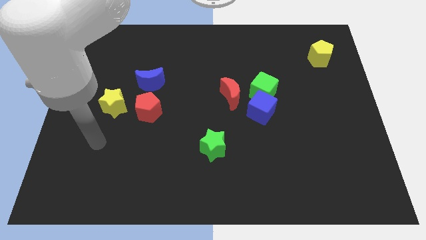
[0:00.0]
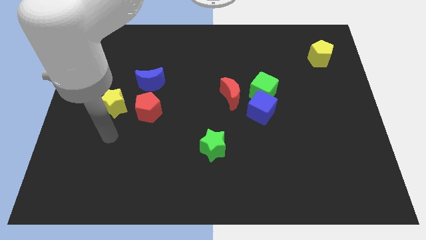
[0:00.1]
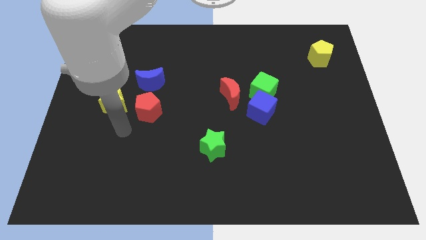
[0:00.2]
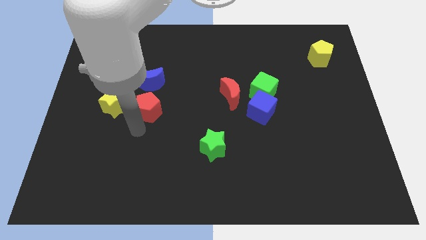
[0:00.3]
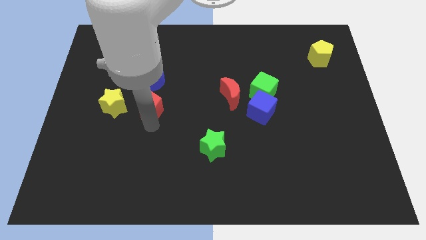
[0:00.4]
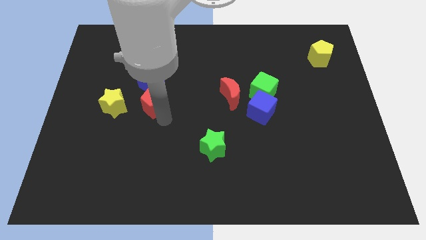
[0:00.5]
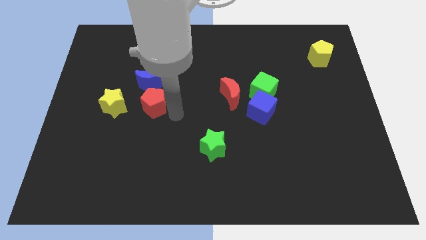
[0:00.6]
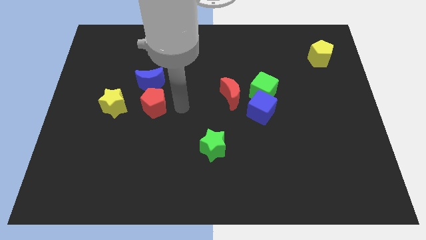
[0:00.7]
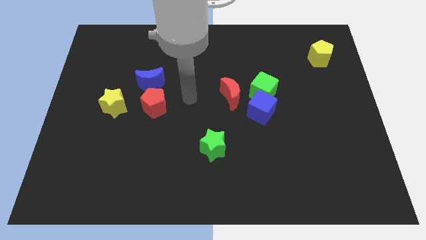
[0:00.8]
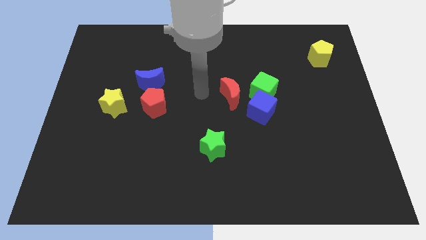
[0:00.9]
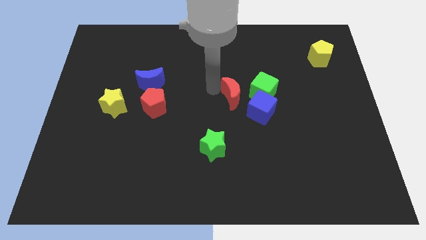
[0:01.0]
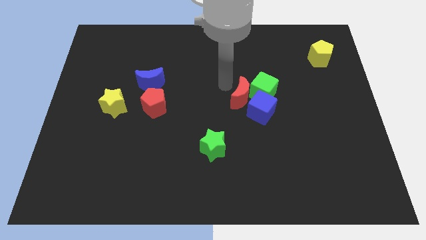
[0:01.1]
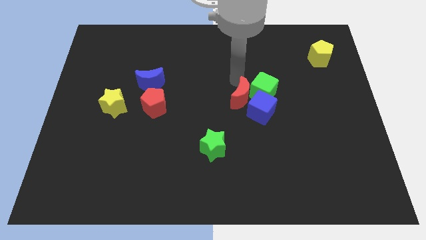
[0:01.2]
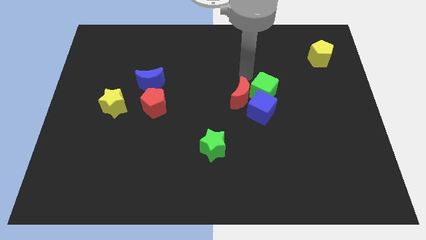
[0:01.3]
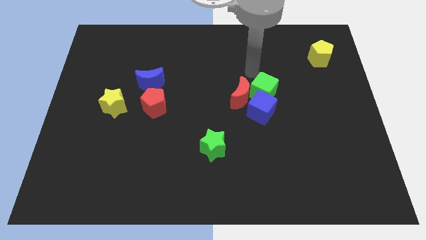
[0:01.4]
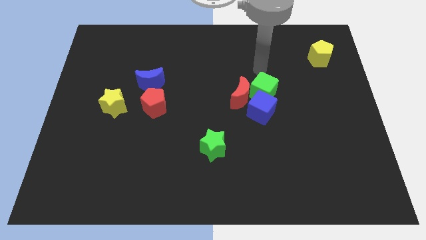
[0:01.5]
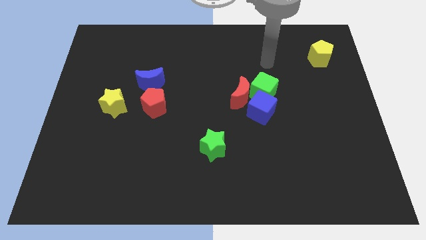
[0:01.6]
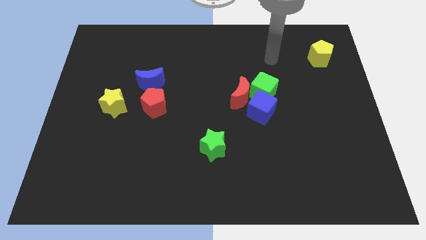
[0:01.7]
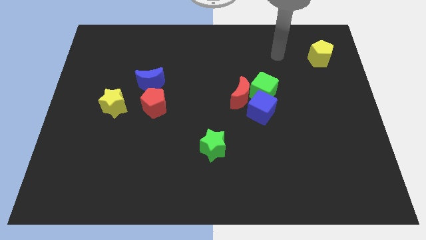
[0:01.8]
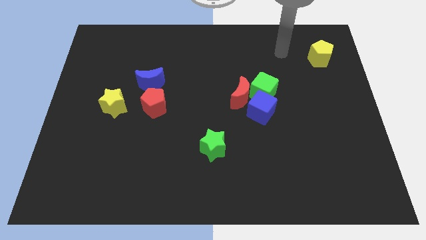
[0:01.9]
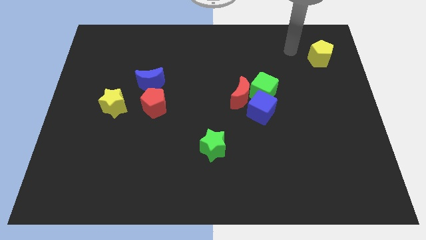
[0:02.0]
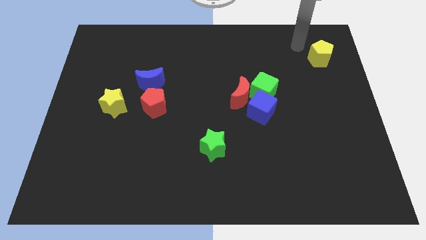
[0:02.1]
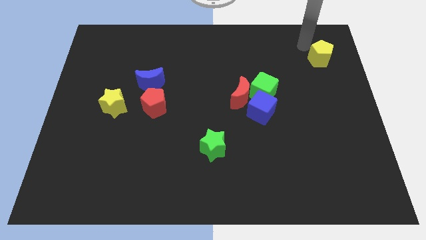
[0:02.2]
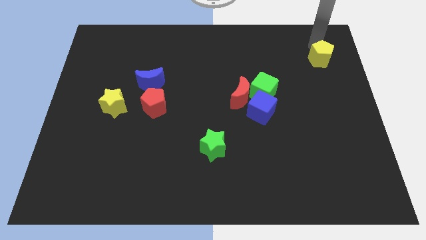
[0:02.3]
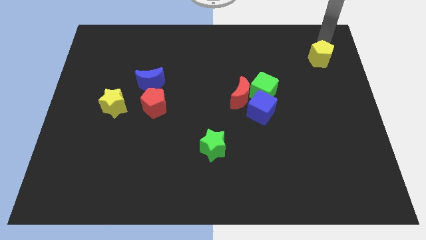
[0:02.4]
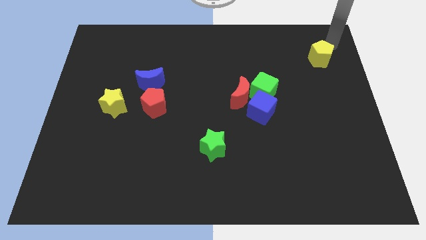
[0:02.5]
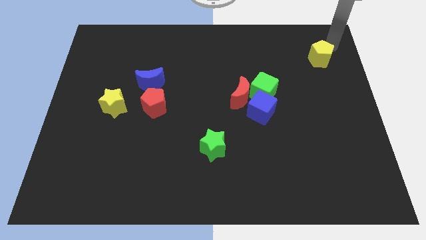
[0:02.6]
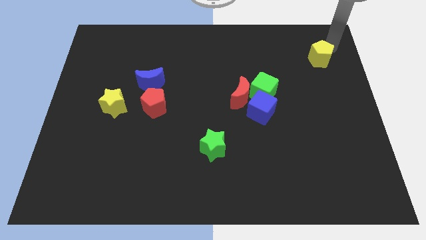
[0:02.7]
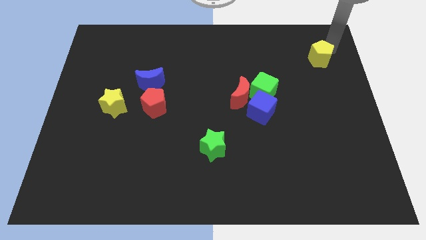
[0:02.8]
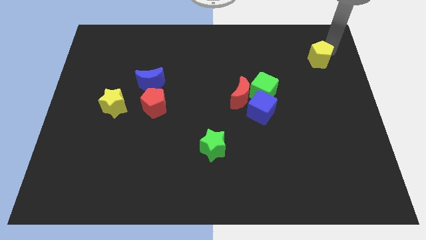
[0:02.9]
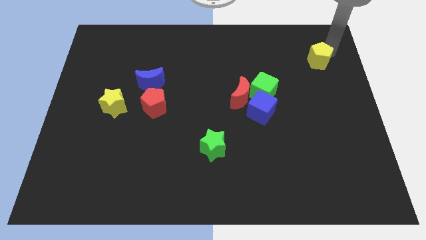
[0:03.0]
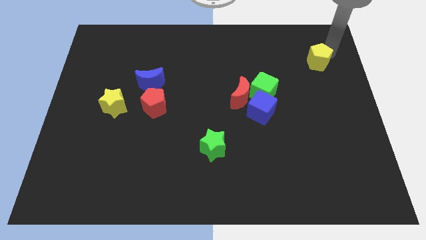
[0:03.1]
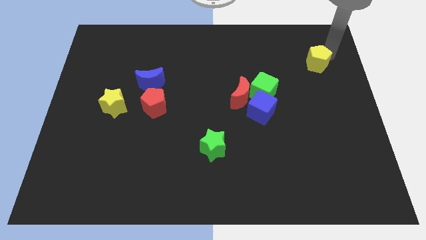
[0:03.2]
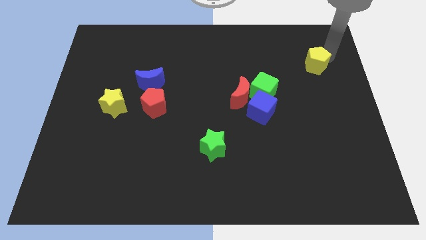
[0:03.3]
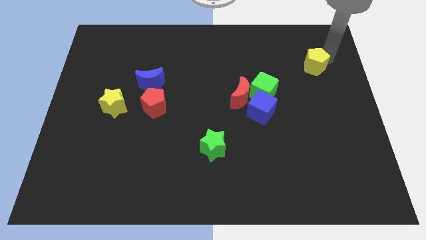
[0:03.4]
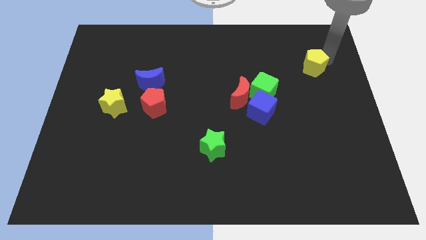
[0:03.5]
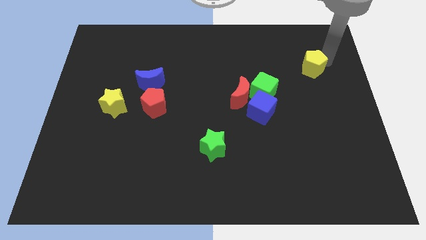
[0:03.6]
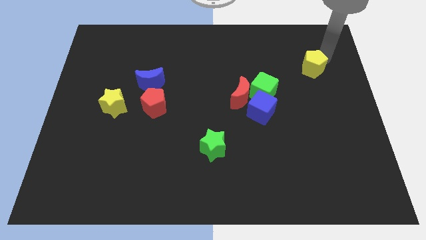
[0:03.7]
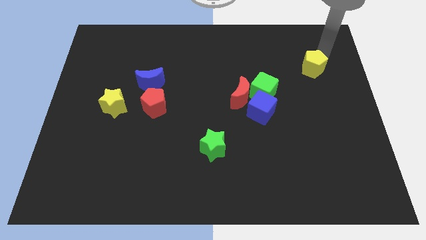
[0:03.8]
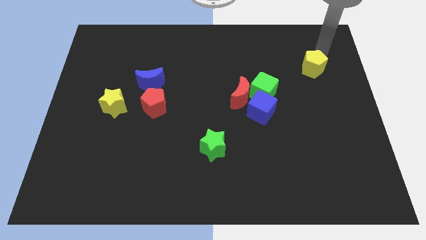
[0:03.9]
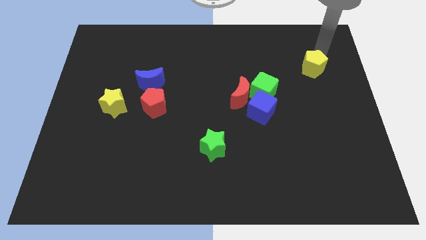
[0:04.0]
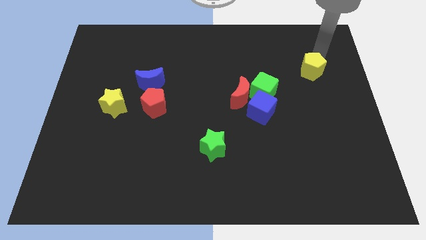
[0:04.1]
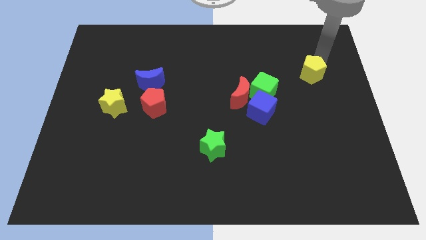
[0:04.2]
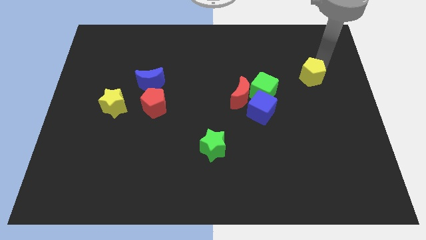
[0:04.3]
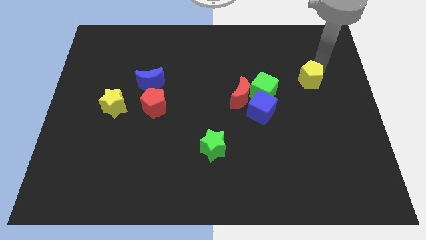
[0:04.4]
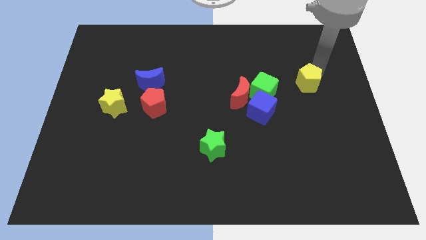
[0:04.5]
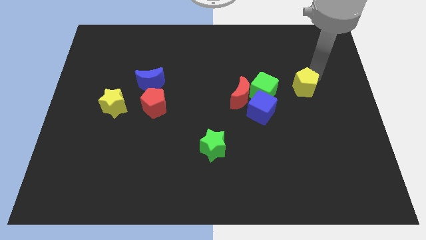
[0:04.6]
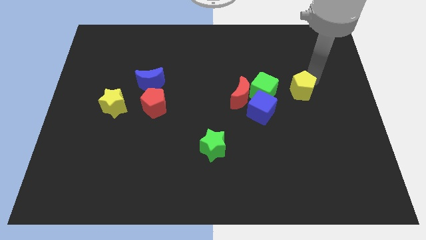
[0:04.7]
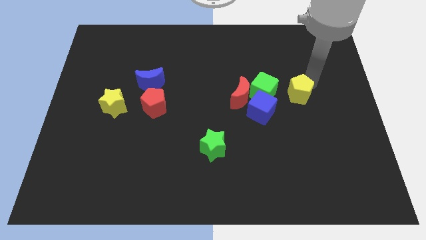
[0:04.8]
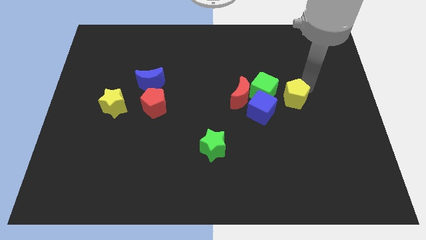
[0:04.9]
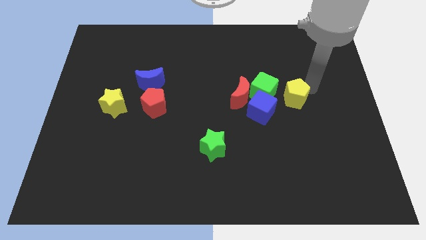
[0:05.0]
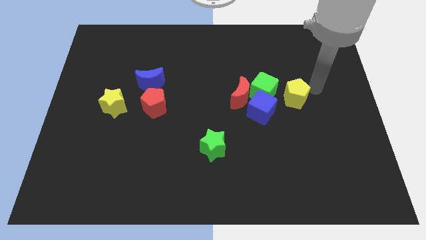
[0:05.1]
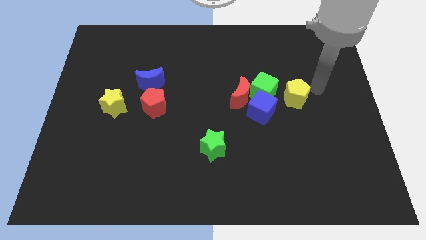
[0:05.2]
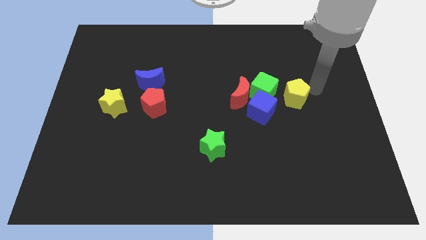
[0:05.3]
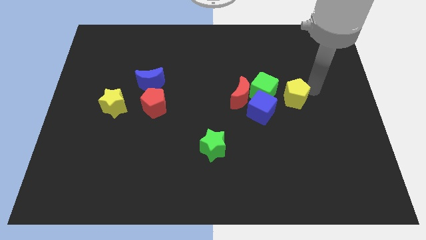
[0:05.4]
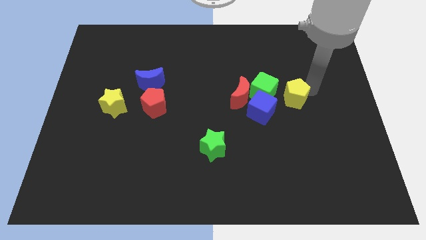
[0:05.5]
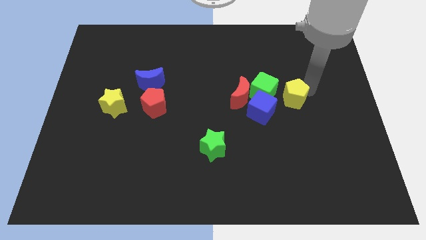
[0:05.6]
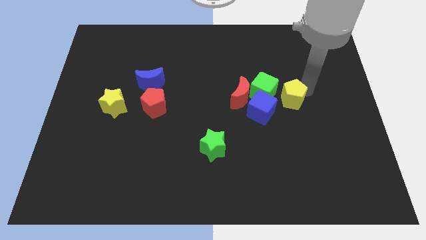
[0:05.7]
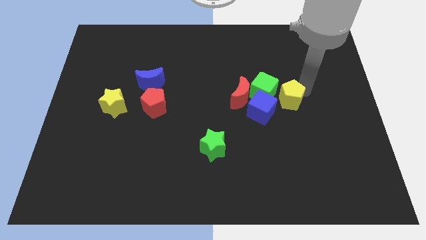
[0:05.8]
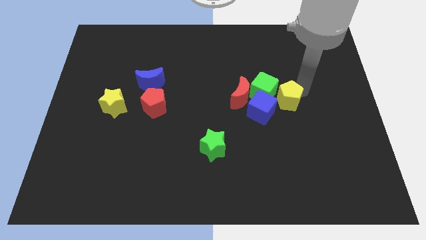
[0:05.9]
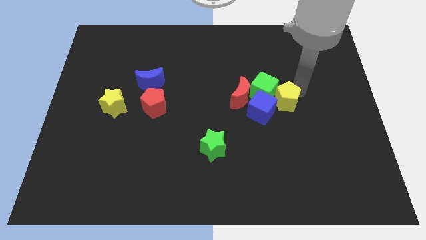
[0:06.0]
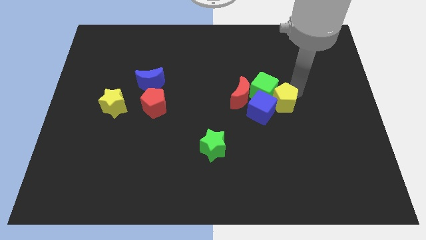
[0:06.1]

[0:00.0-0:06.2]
slide the yellow pentagon towards the blue cube

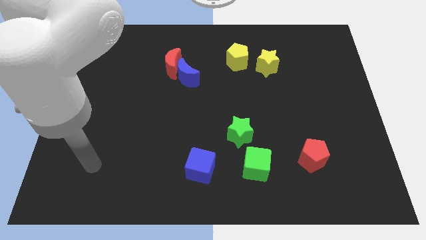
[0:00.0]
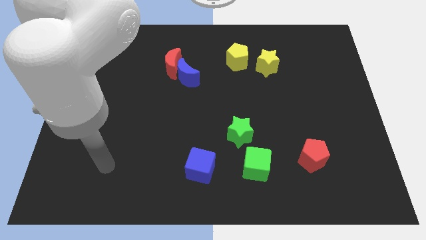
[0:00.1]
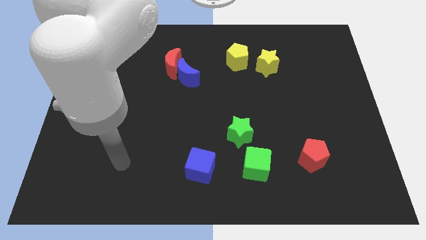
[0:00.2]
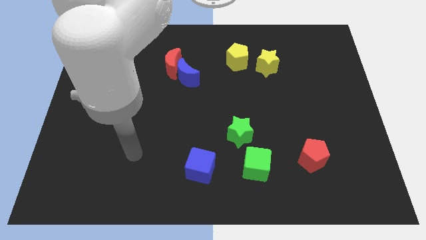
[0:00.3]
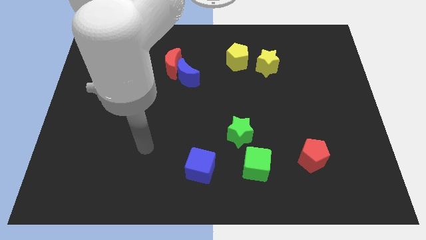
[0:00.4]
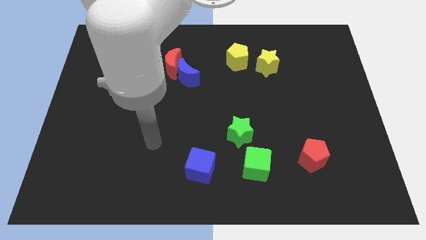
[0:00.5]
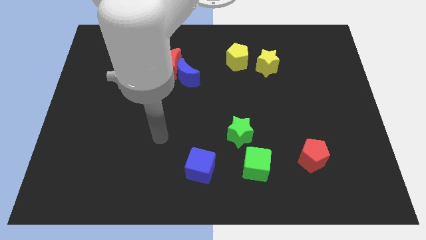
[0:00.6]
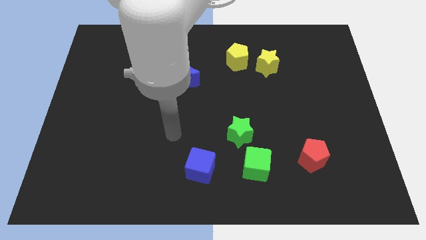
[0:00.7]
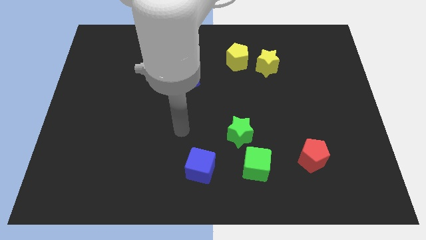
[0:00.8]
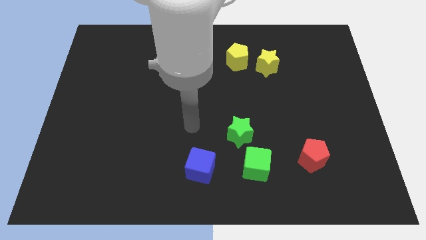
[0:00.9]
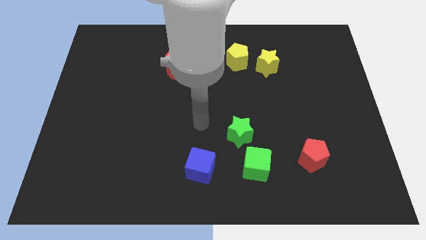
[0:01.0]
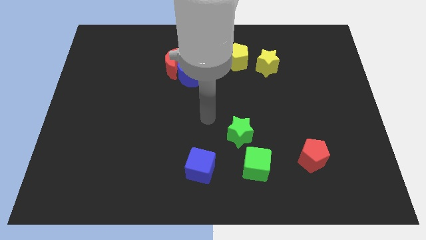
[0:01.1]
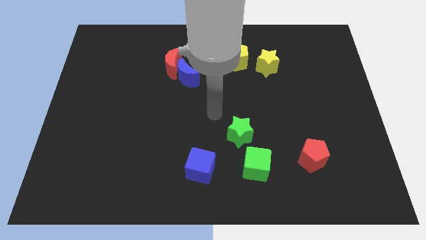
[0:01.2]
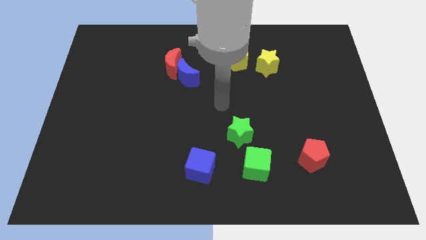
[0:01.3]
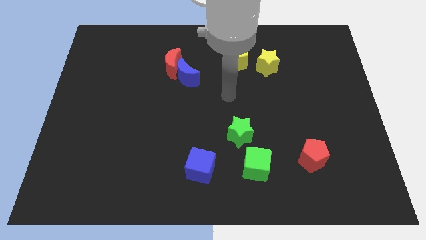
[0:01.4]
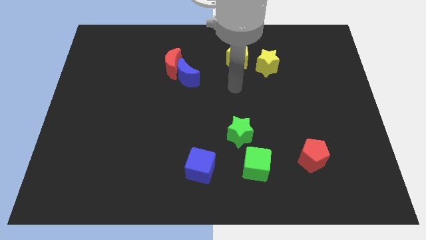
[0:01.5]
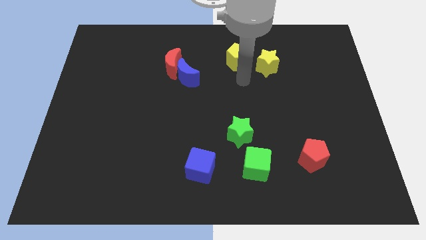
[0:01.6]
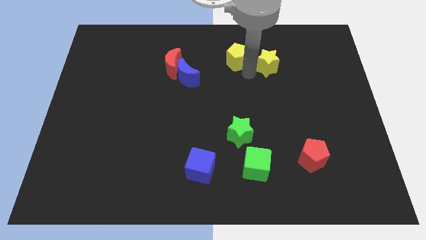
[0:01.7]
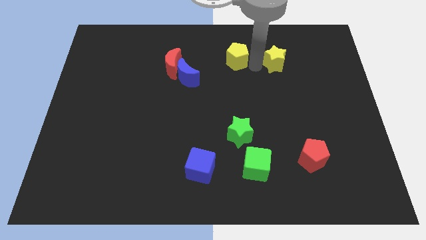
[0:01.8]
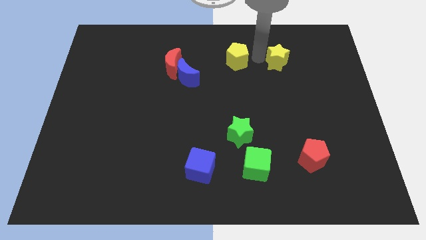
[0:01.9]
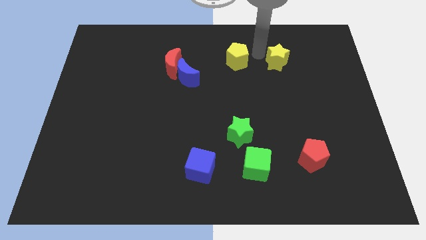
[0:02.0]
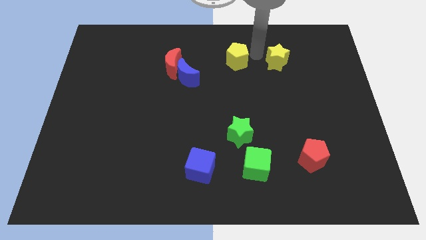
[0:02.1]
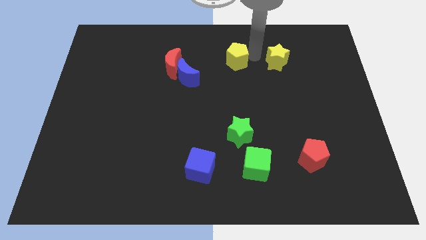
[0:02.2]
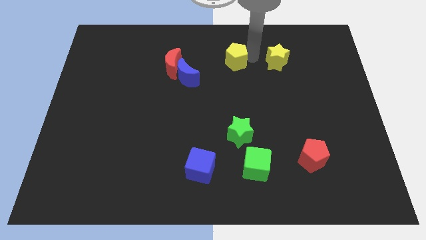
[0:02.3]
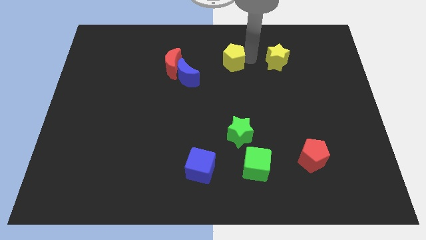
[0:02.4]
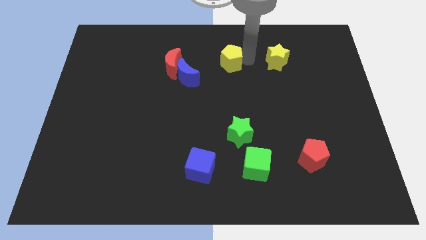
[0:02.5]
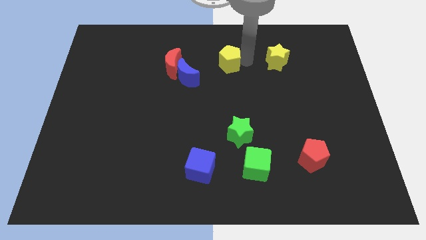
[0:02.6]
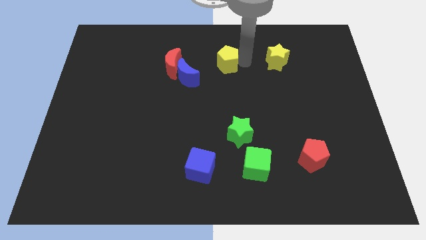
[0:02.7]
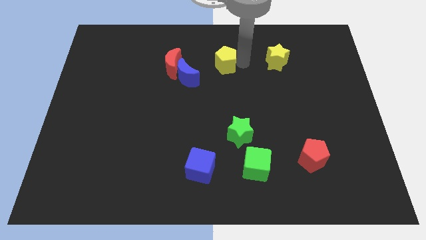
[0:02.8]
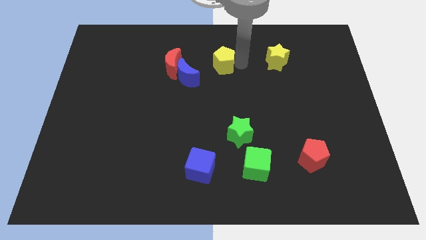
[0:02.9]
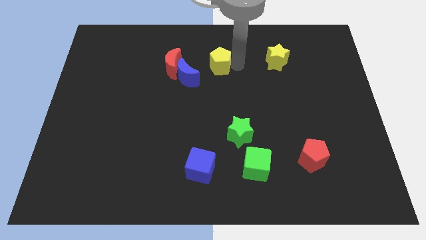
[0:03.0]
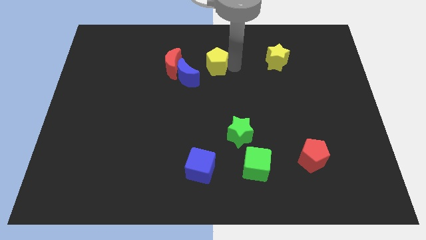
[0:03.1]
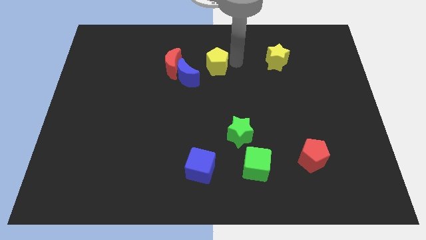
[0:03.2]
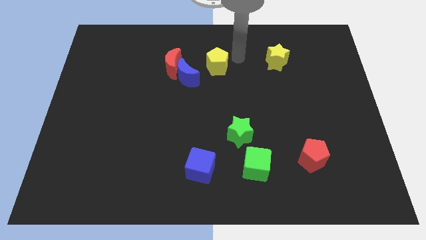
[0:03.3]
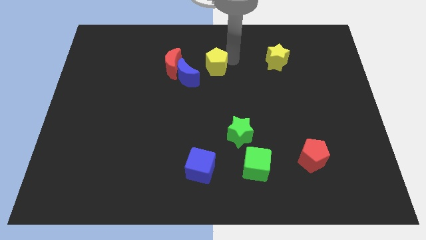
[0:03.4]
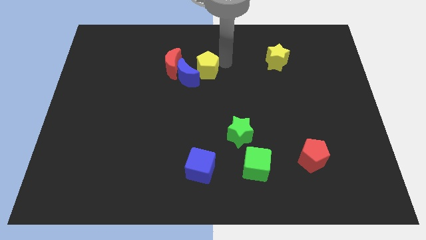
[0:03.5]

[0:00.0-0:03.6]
slide the yellow pentagon to the blue moon
